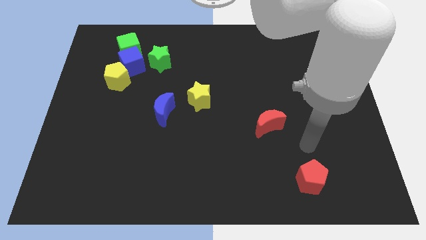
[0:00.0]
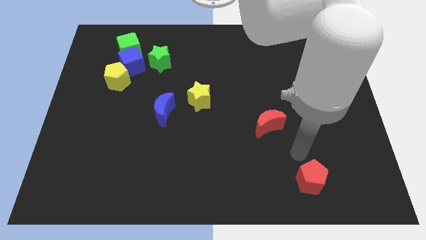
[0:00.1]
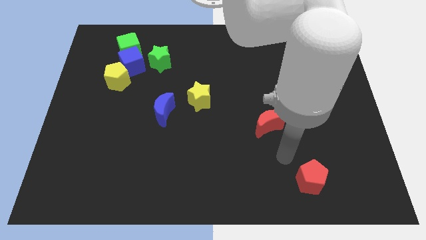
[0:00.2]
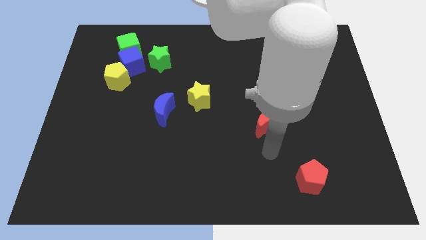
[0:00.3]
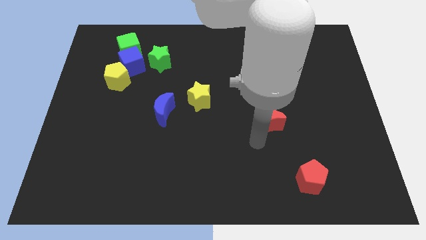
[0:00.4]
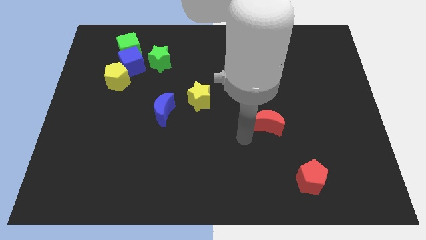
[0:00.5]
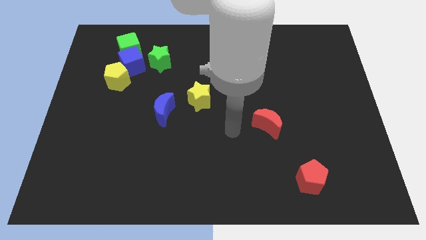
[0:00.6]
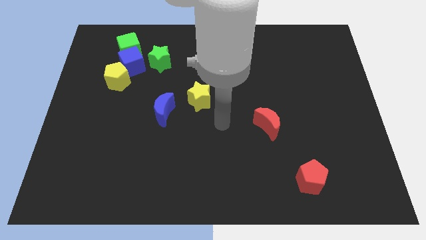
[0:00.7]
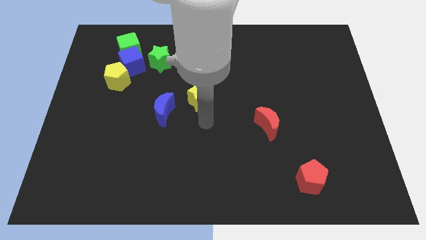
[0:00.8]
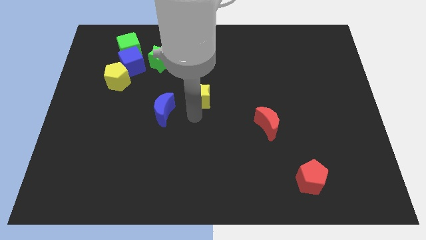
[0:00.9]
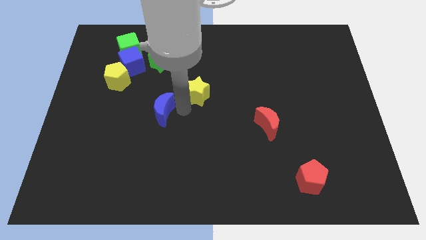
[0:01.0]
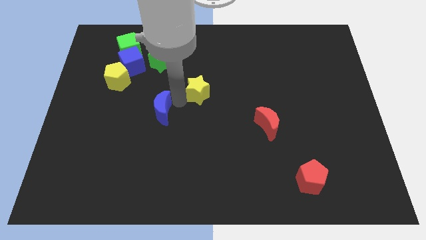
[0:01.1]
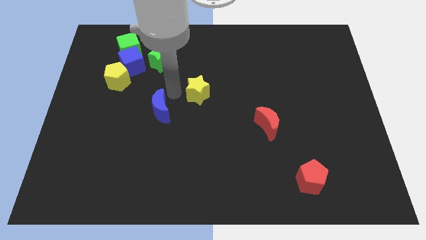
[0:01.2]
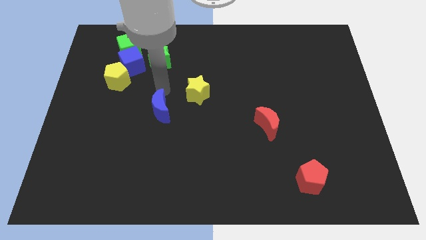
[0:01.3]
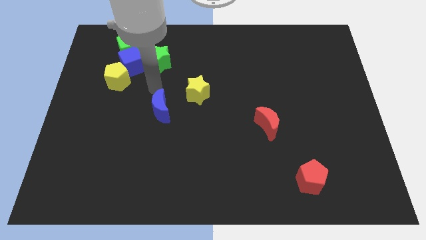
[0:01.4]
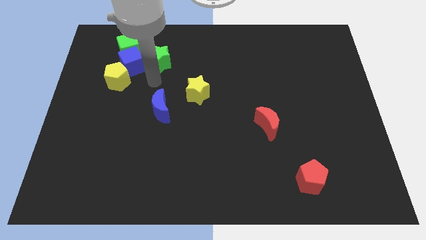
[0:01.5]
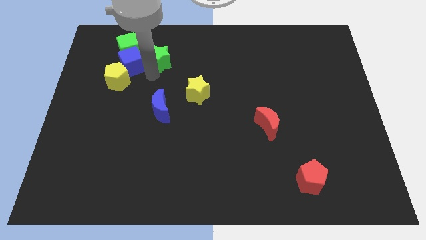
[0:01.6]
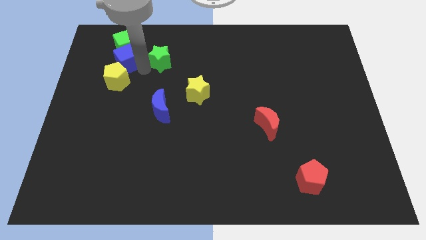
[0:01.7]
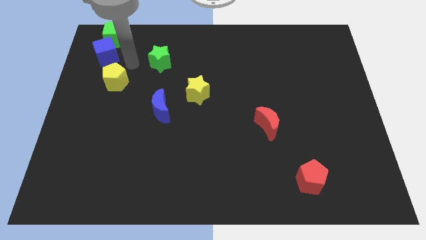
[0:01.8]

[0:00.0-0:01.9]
pull the yellow pentagon apart from the blue cube

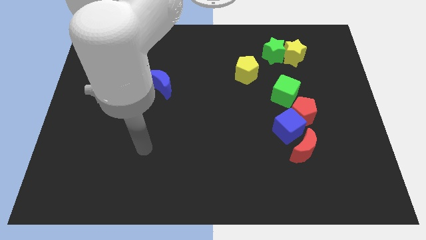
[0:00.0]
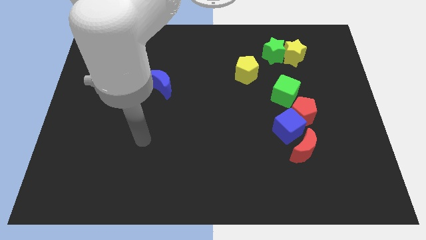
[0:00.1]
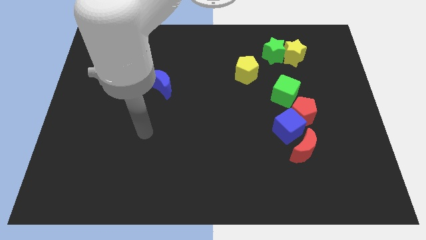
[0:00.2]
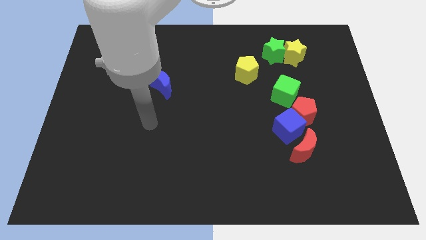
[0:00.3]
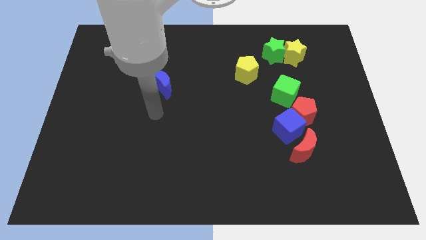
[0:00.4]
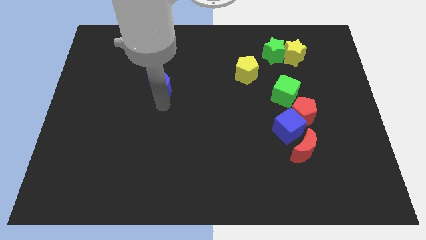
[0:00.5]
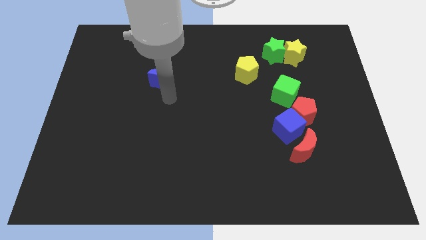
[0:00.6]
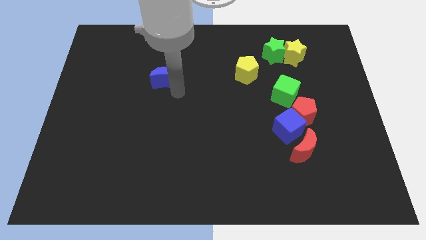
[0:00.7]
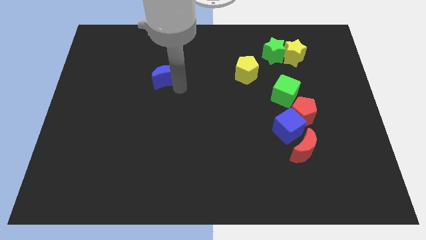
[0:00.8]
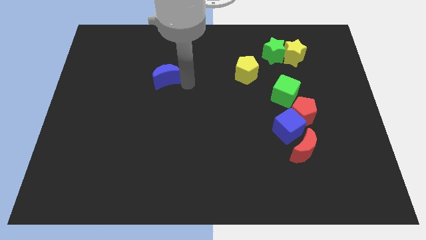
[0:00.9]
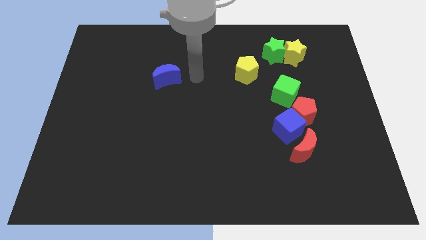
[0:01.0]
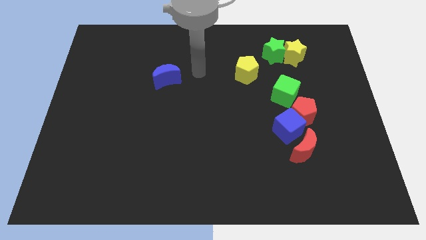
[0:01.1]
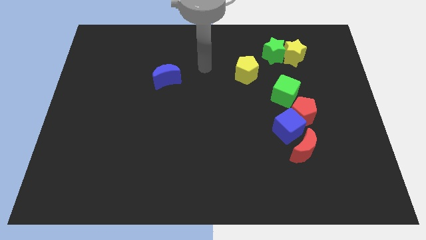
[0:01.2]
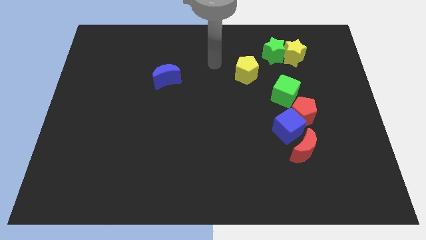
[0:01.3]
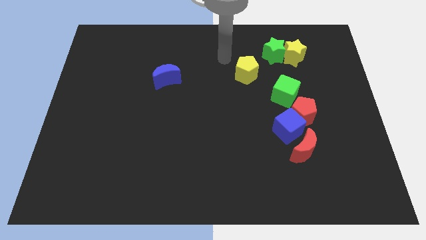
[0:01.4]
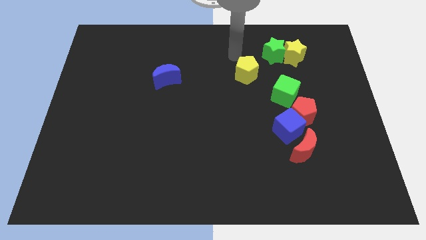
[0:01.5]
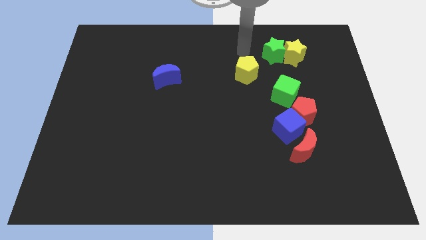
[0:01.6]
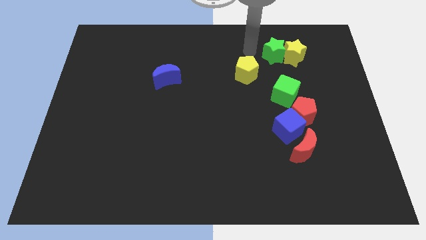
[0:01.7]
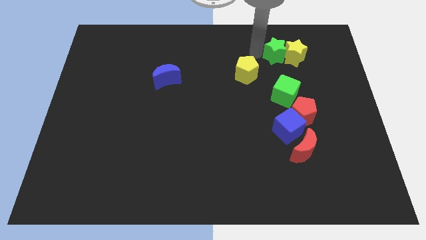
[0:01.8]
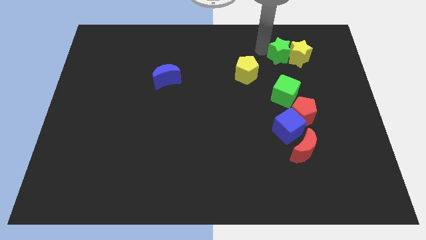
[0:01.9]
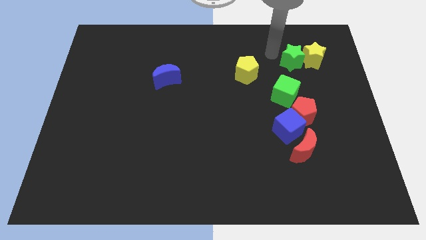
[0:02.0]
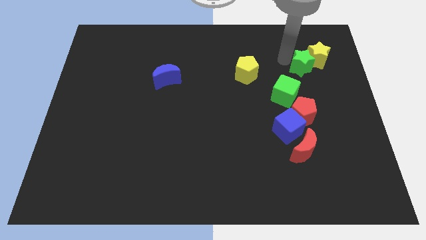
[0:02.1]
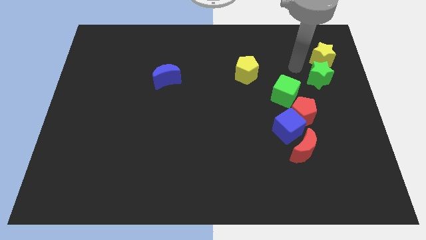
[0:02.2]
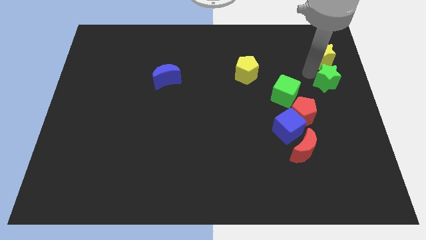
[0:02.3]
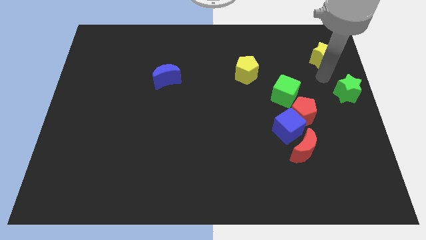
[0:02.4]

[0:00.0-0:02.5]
move the yellow star away from the green star

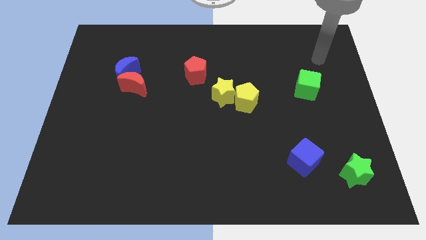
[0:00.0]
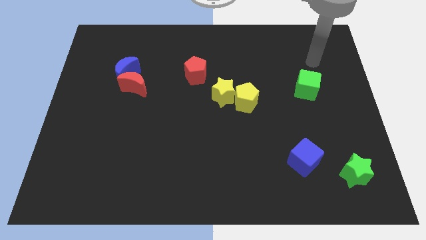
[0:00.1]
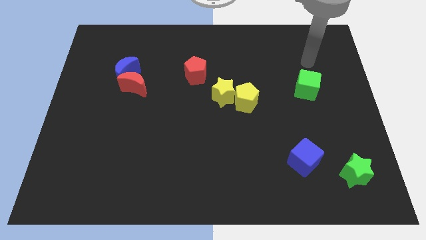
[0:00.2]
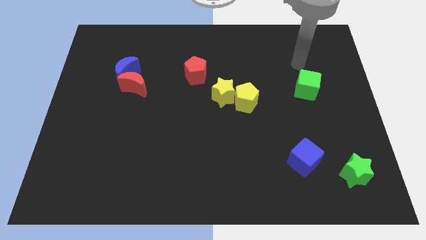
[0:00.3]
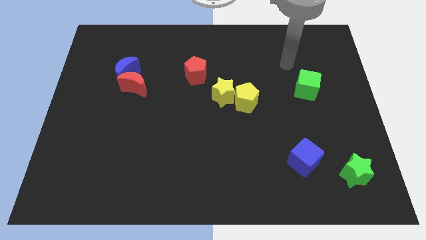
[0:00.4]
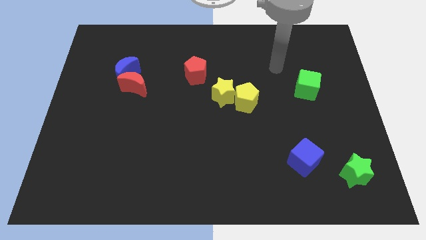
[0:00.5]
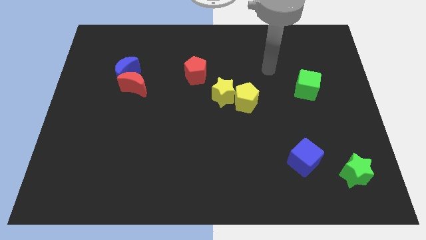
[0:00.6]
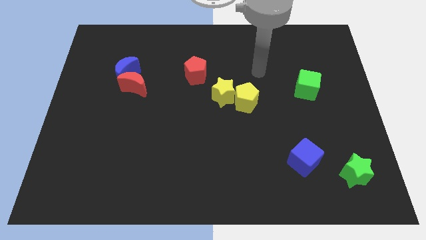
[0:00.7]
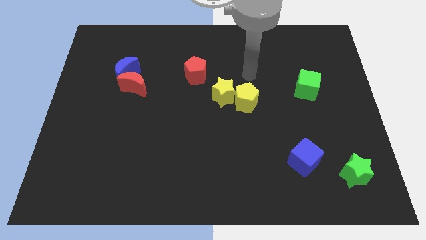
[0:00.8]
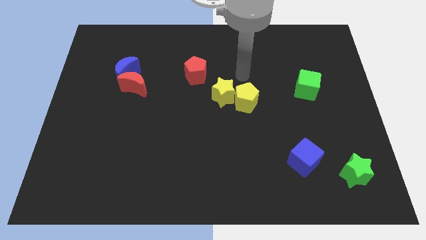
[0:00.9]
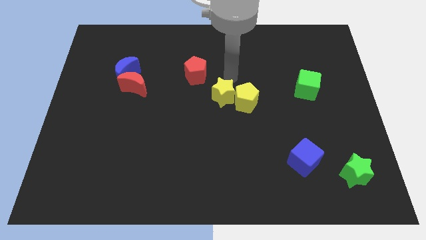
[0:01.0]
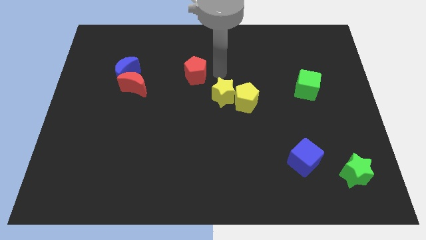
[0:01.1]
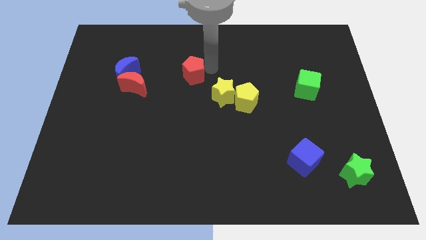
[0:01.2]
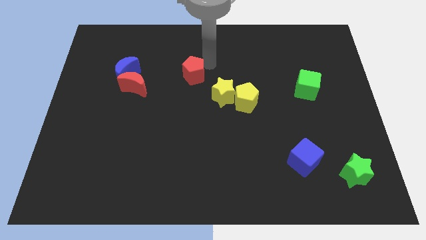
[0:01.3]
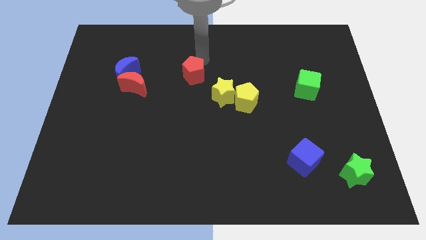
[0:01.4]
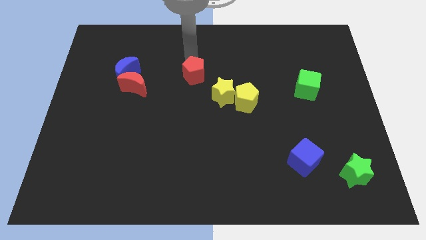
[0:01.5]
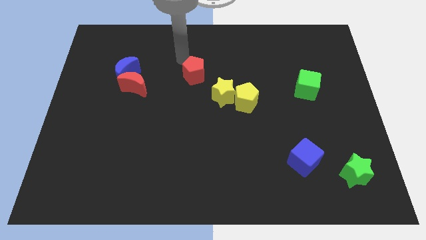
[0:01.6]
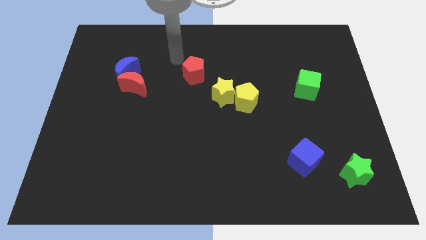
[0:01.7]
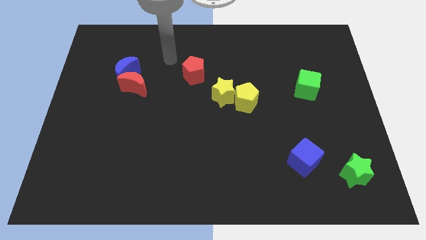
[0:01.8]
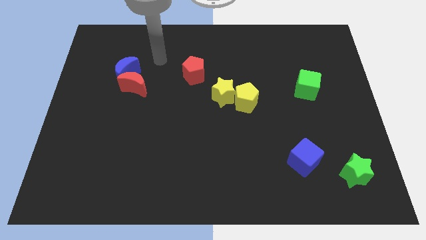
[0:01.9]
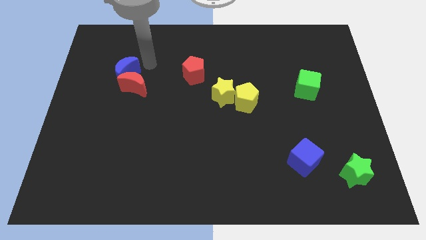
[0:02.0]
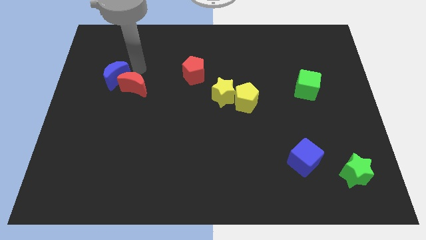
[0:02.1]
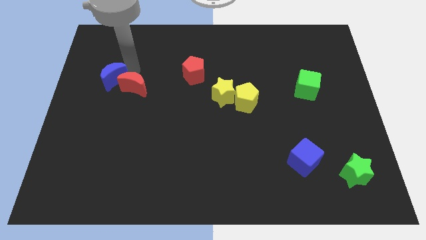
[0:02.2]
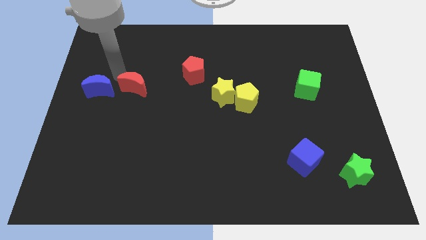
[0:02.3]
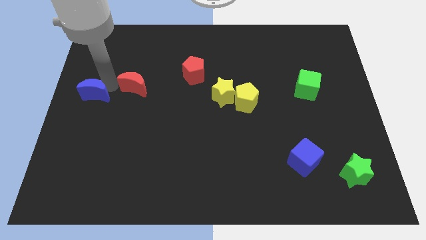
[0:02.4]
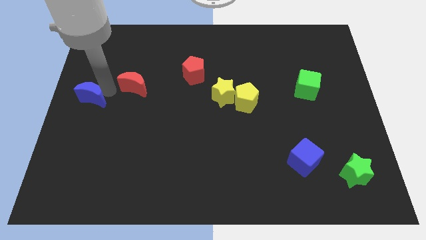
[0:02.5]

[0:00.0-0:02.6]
separate the red moon from the blue moon

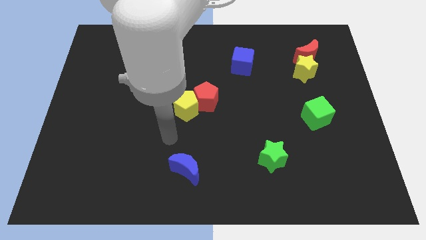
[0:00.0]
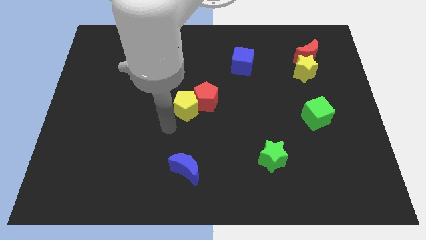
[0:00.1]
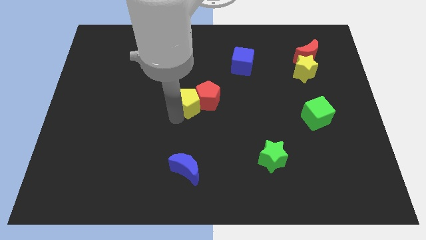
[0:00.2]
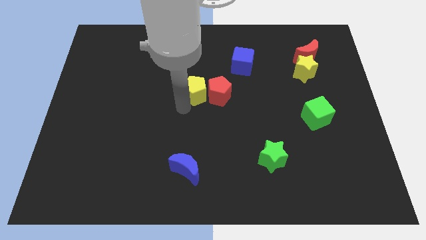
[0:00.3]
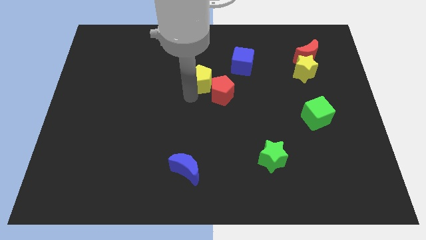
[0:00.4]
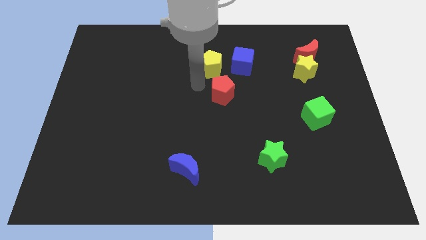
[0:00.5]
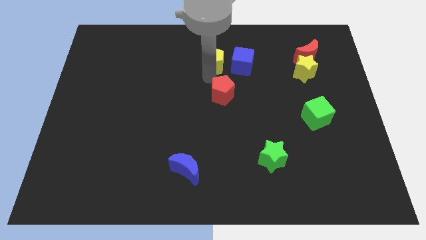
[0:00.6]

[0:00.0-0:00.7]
move the red pentagon away from the yellow pentagon

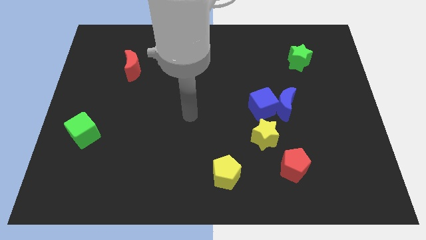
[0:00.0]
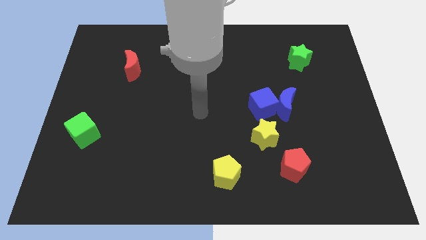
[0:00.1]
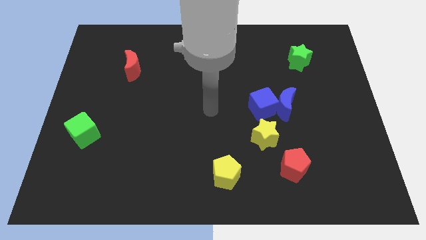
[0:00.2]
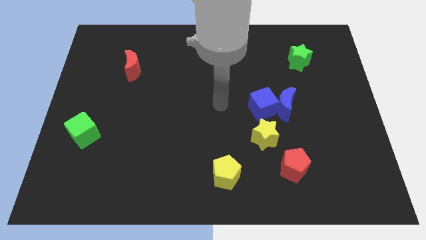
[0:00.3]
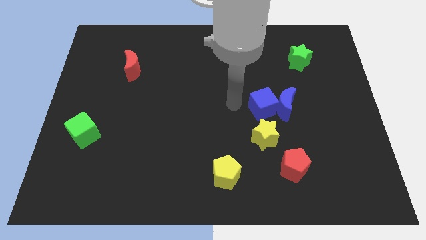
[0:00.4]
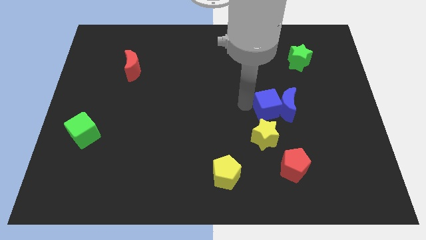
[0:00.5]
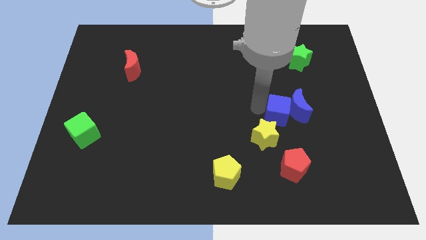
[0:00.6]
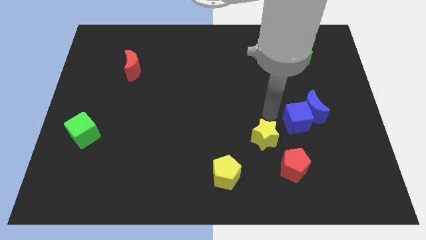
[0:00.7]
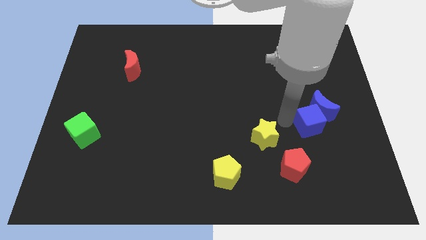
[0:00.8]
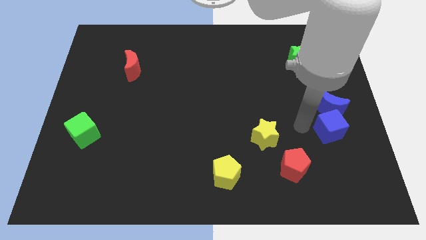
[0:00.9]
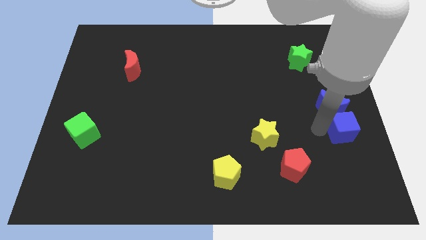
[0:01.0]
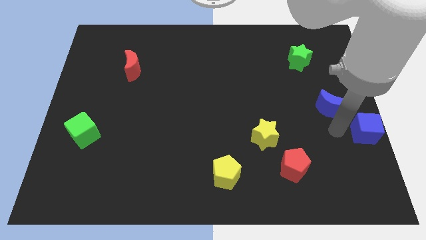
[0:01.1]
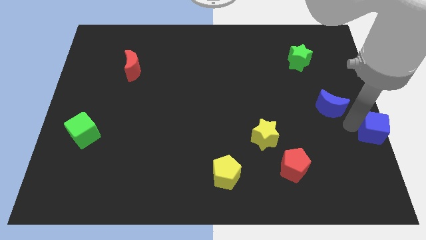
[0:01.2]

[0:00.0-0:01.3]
separate the blue moon from the blue cube

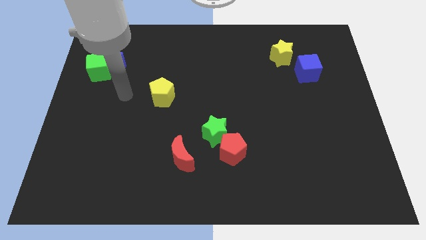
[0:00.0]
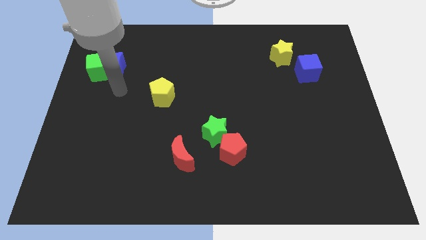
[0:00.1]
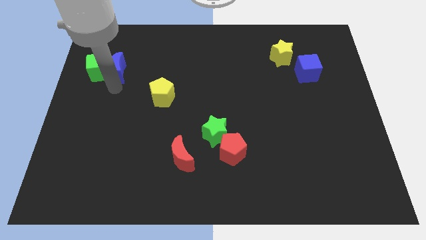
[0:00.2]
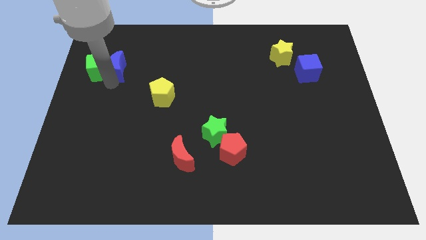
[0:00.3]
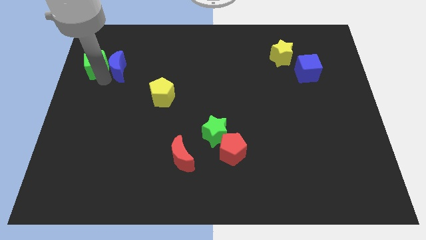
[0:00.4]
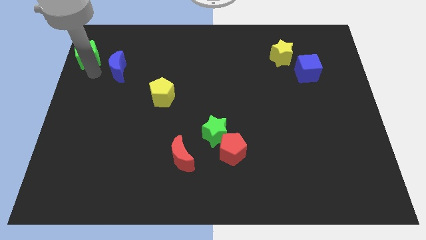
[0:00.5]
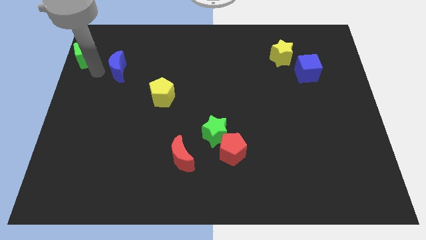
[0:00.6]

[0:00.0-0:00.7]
pull the blue moon apart from the green cube
